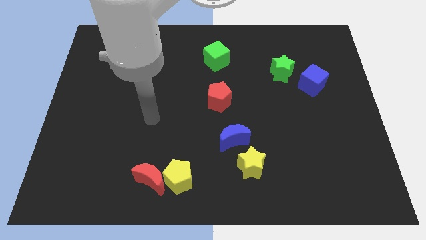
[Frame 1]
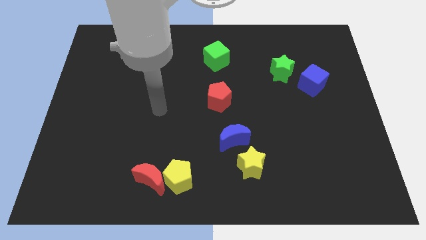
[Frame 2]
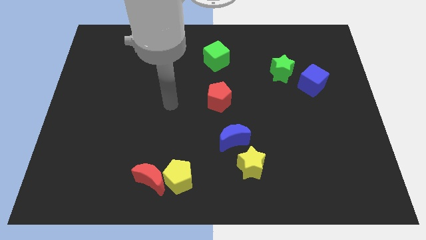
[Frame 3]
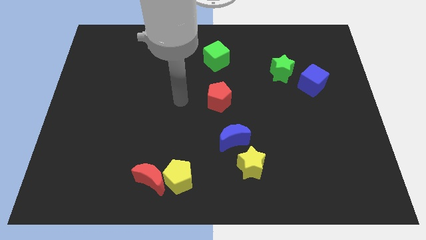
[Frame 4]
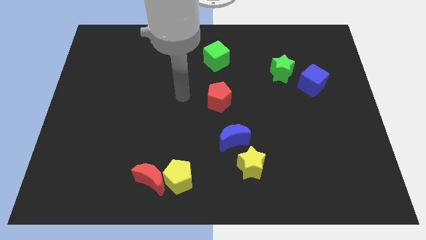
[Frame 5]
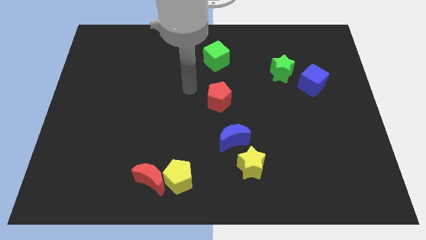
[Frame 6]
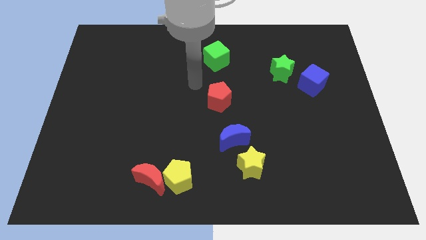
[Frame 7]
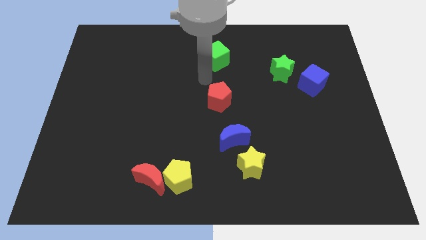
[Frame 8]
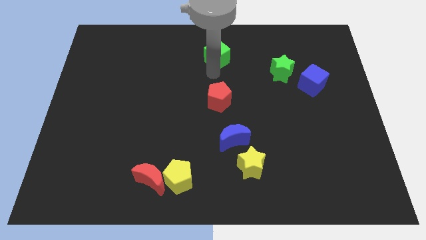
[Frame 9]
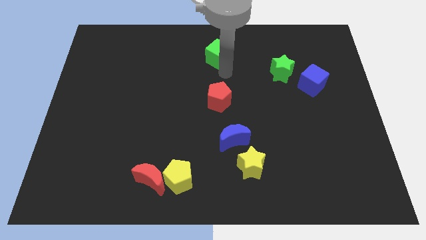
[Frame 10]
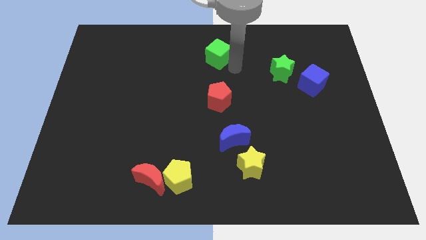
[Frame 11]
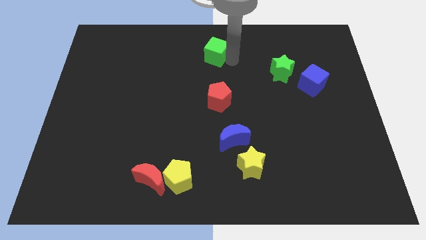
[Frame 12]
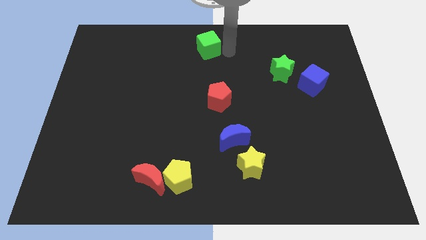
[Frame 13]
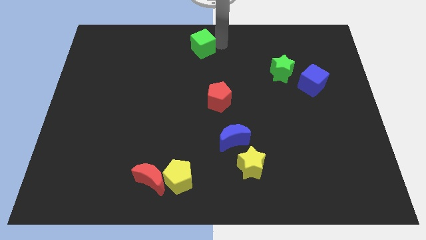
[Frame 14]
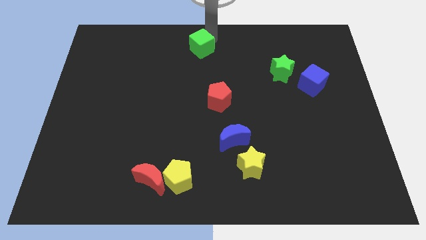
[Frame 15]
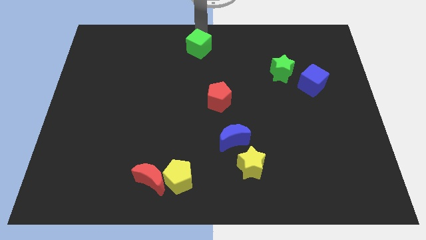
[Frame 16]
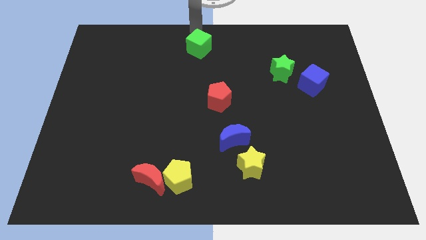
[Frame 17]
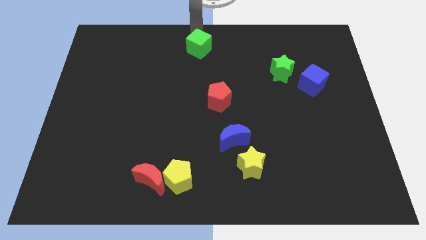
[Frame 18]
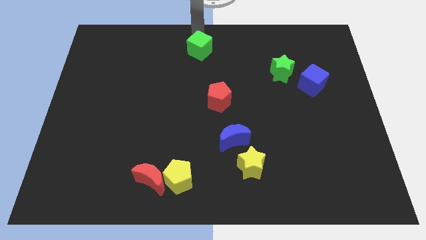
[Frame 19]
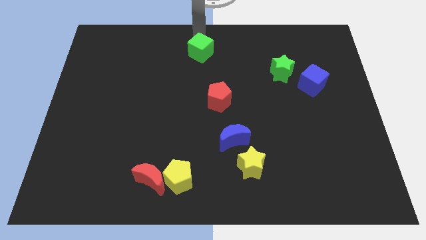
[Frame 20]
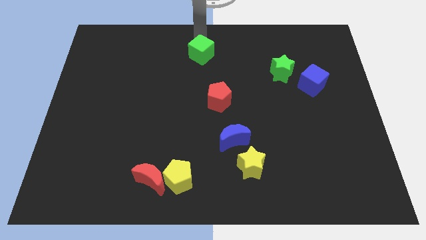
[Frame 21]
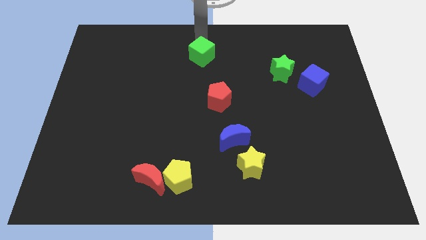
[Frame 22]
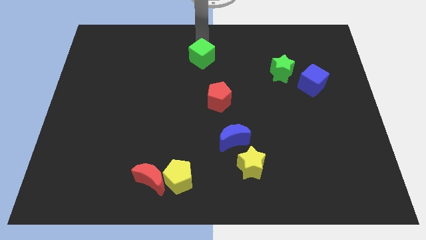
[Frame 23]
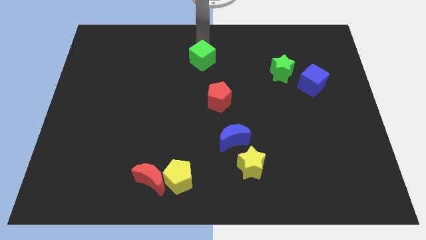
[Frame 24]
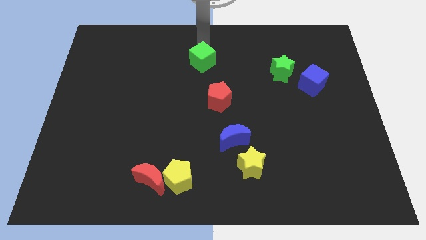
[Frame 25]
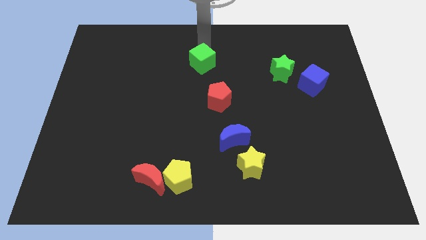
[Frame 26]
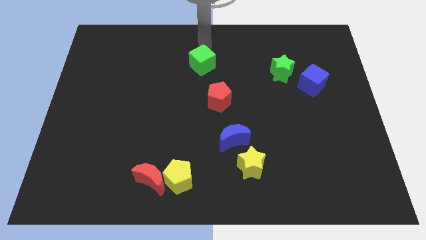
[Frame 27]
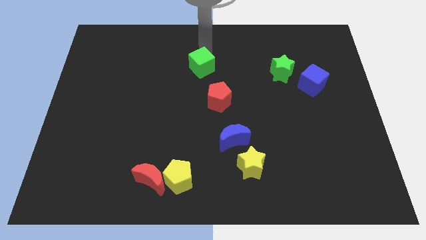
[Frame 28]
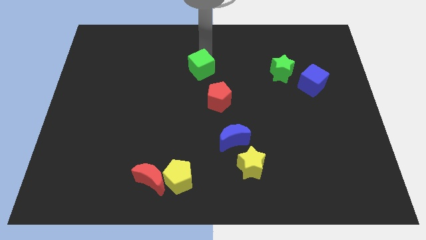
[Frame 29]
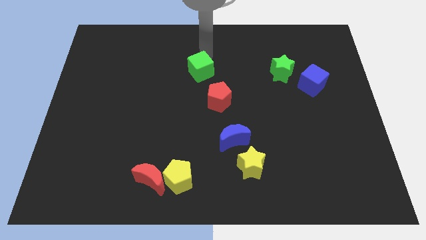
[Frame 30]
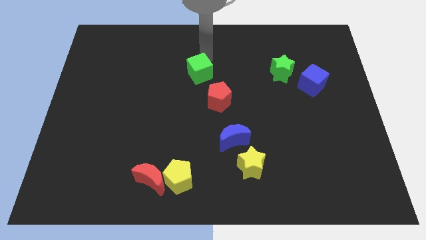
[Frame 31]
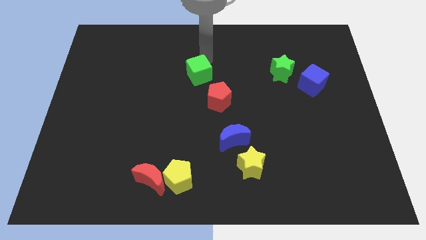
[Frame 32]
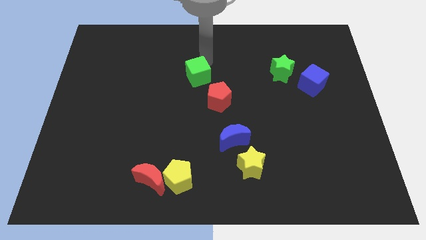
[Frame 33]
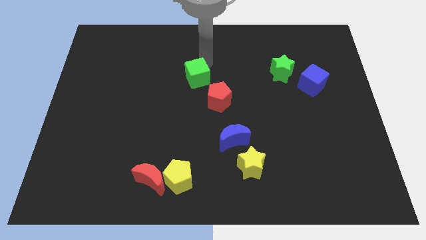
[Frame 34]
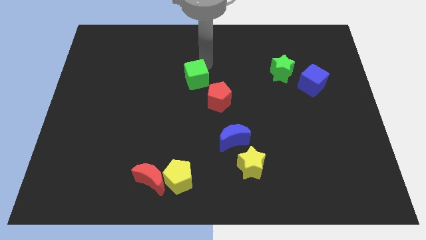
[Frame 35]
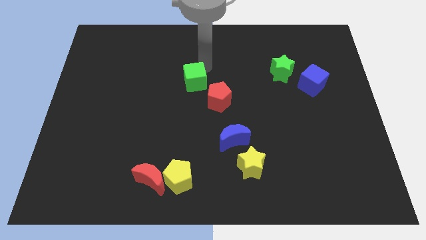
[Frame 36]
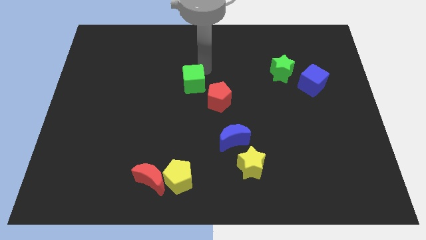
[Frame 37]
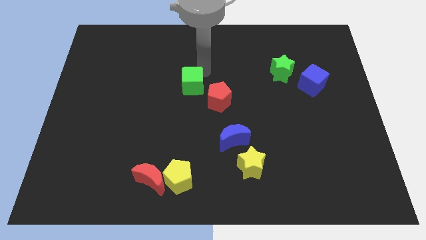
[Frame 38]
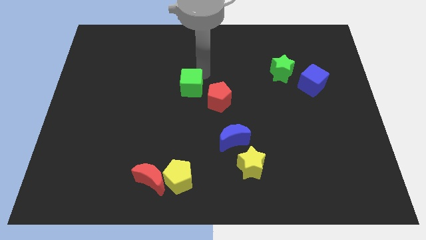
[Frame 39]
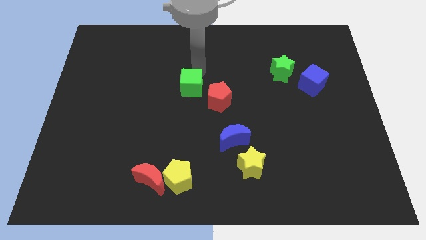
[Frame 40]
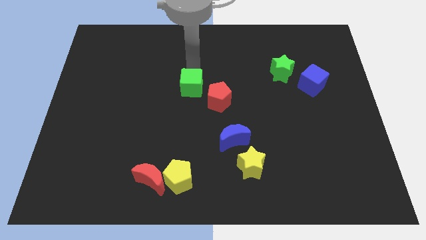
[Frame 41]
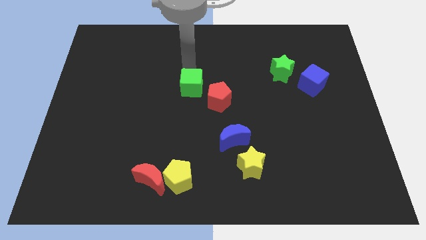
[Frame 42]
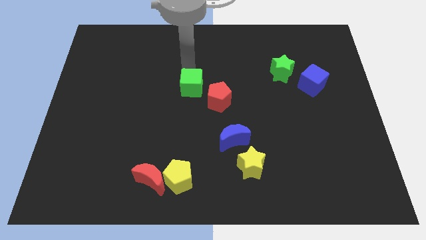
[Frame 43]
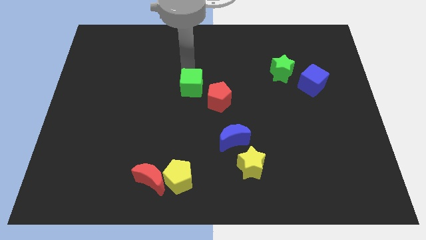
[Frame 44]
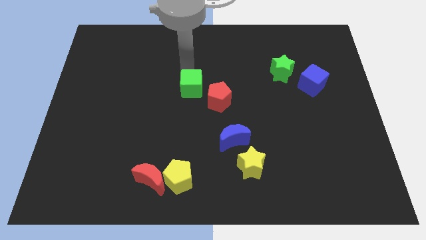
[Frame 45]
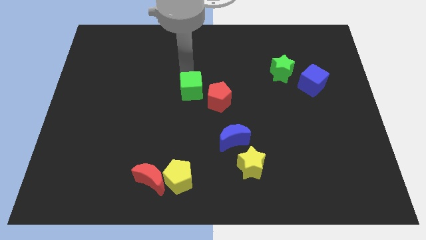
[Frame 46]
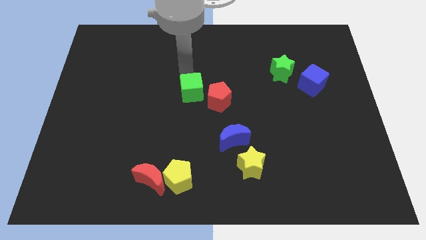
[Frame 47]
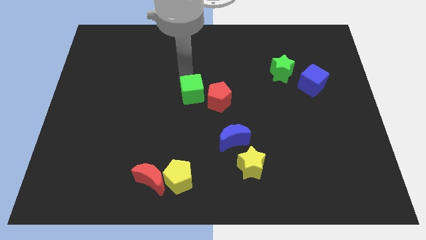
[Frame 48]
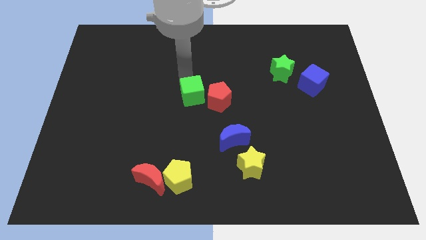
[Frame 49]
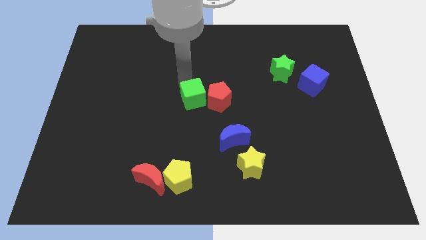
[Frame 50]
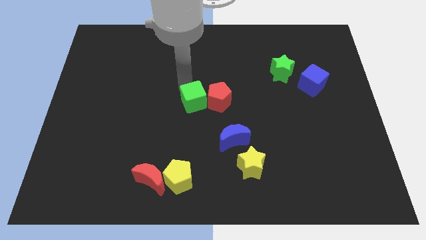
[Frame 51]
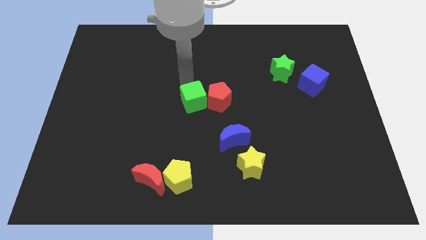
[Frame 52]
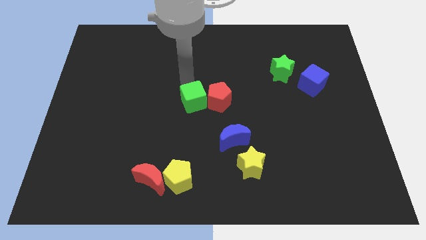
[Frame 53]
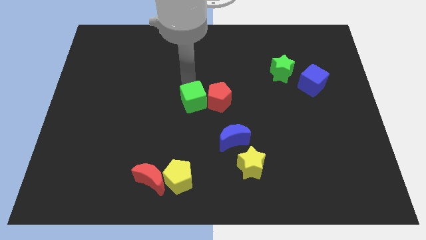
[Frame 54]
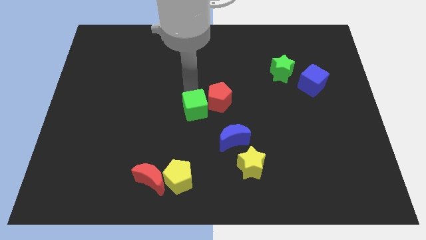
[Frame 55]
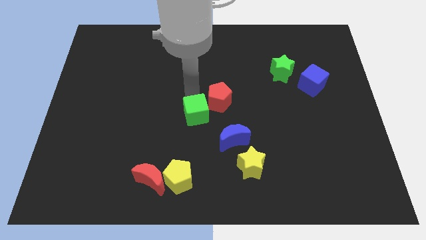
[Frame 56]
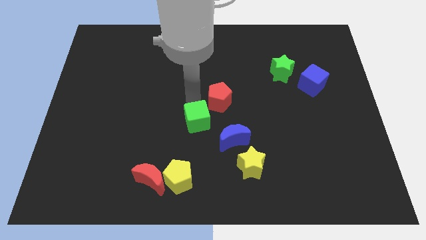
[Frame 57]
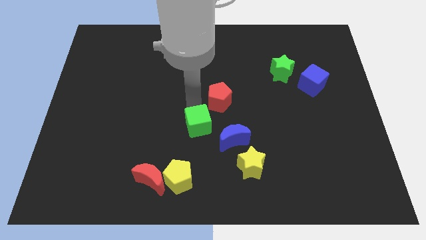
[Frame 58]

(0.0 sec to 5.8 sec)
slide the green cube downwards

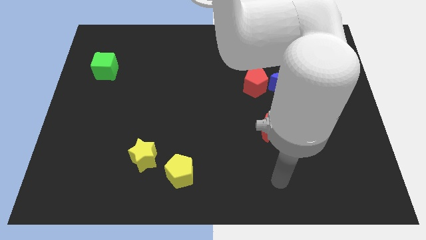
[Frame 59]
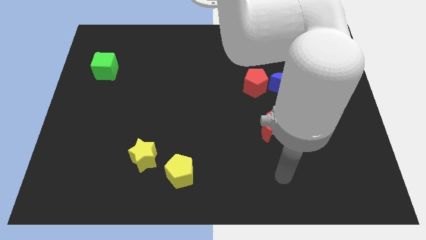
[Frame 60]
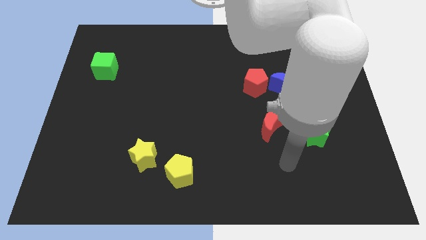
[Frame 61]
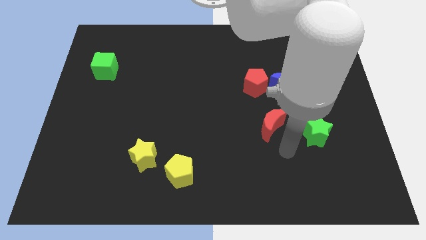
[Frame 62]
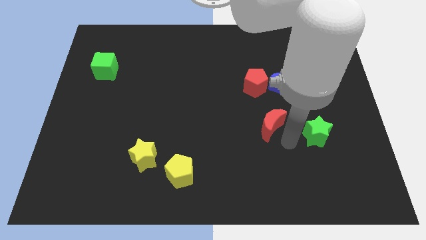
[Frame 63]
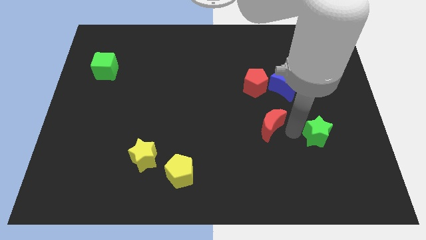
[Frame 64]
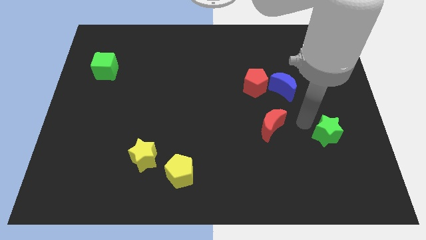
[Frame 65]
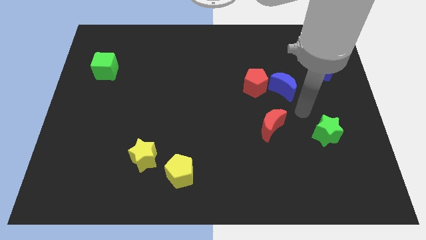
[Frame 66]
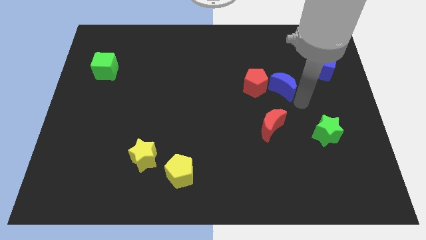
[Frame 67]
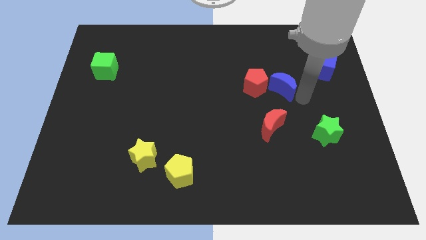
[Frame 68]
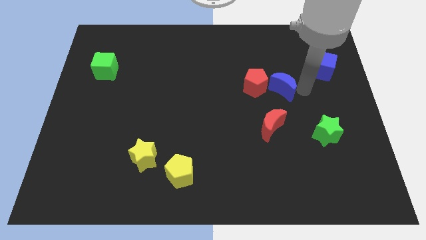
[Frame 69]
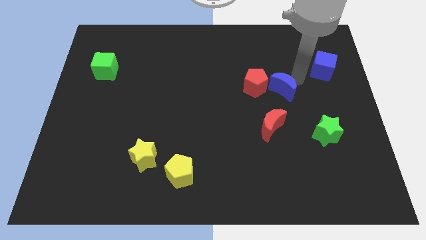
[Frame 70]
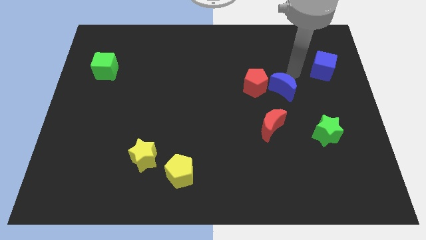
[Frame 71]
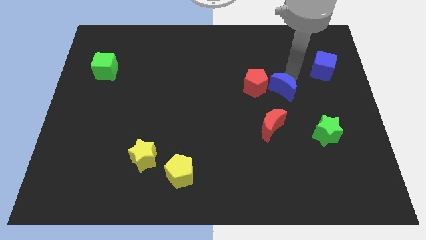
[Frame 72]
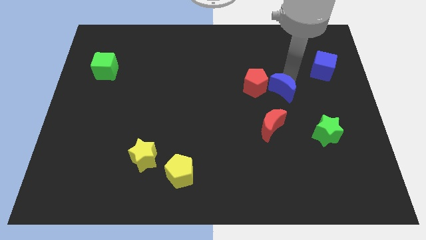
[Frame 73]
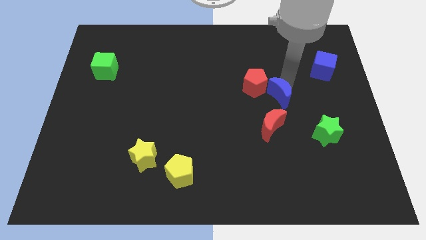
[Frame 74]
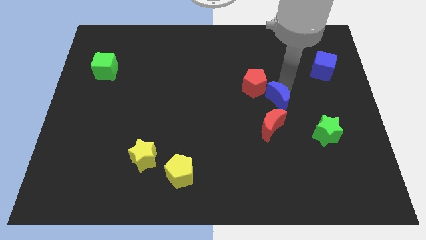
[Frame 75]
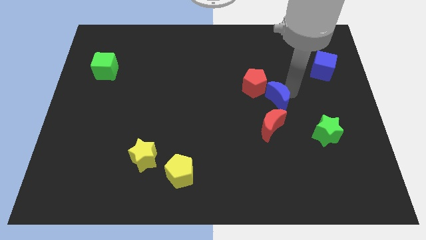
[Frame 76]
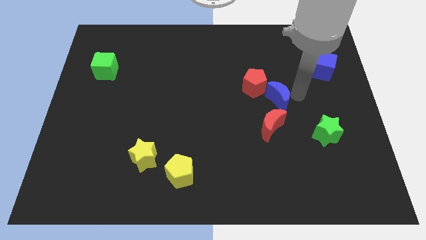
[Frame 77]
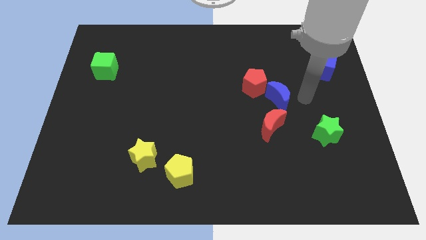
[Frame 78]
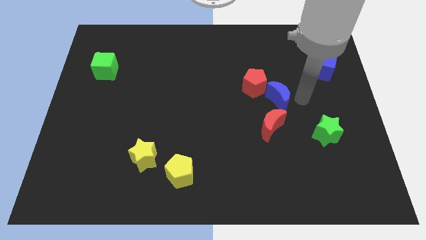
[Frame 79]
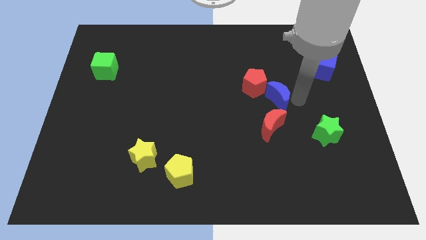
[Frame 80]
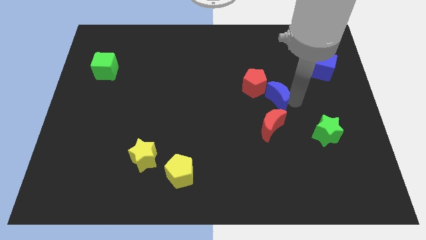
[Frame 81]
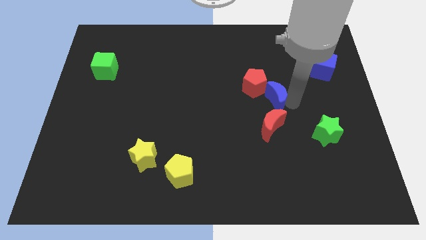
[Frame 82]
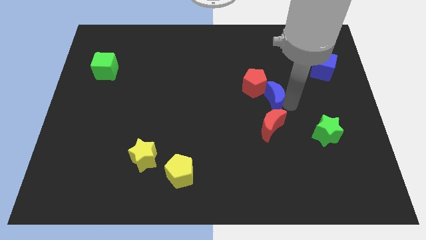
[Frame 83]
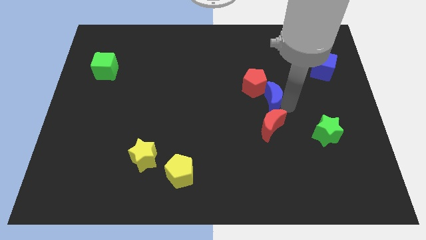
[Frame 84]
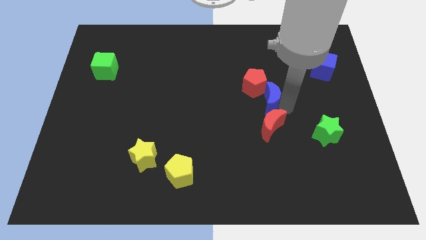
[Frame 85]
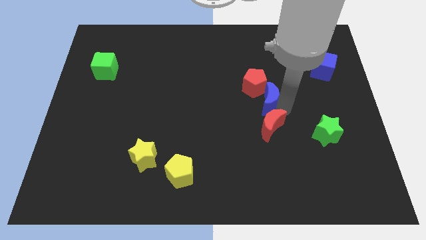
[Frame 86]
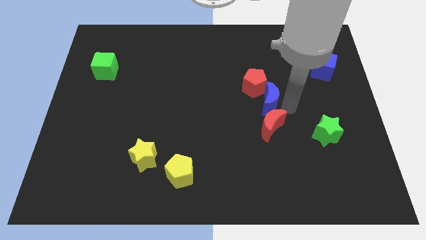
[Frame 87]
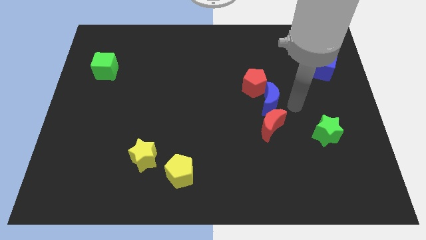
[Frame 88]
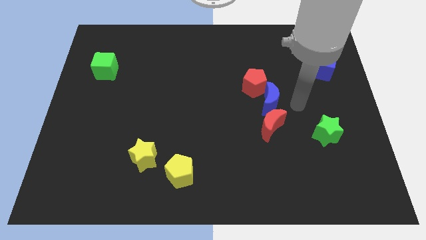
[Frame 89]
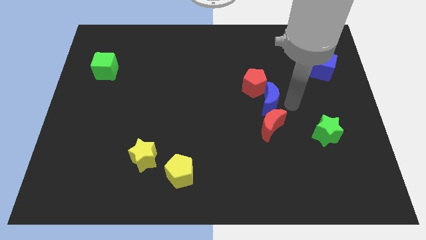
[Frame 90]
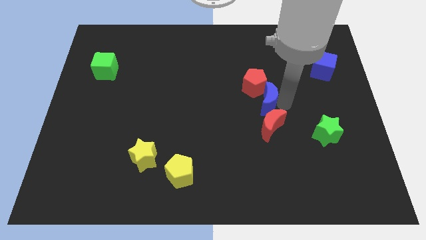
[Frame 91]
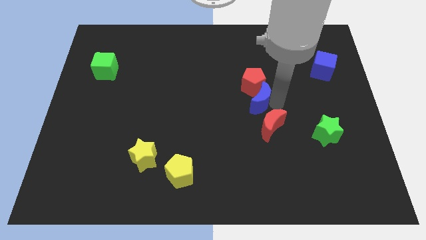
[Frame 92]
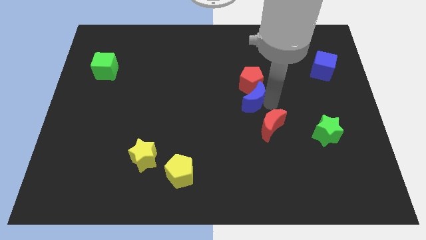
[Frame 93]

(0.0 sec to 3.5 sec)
slightly slide the blue moon left
